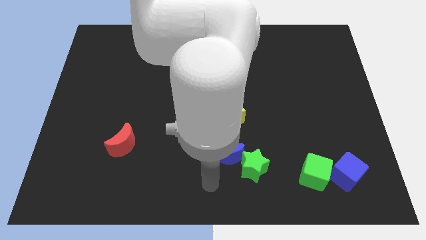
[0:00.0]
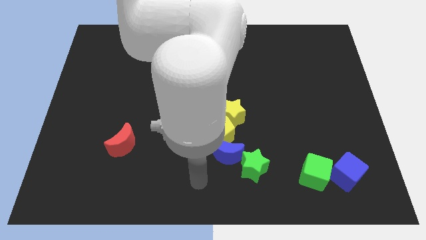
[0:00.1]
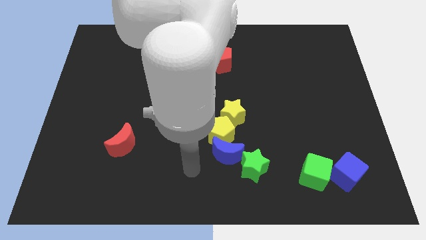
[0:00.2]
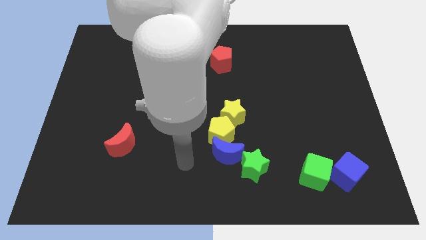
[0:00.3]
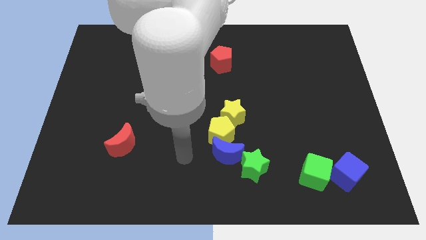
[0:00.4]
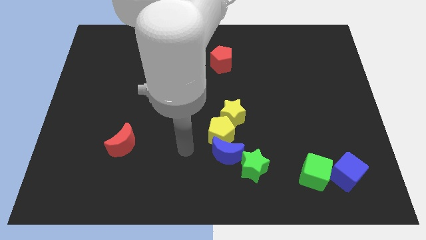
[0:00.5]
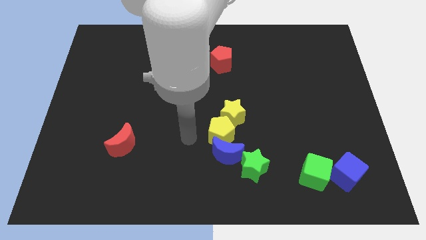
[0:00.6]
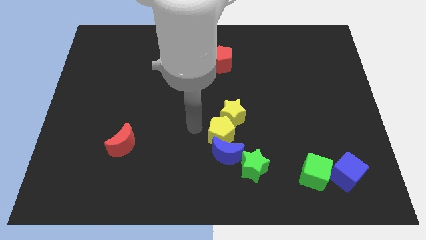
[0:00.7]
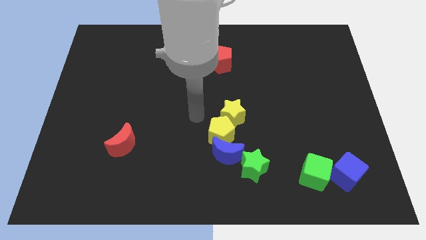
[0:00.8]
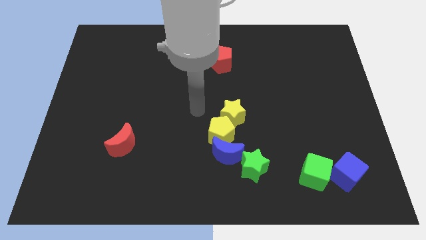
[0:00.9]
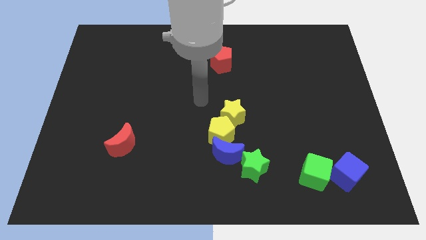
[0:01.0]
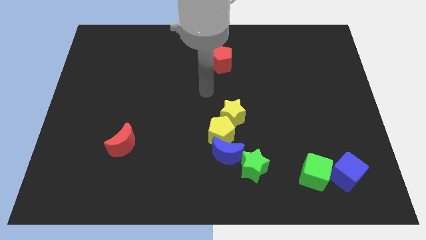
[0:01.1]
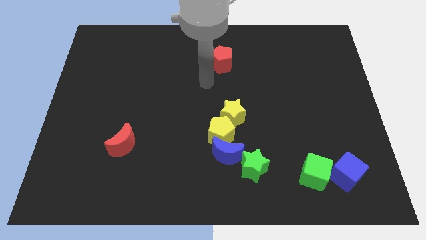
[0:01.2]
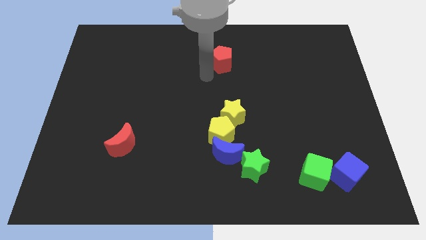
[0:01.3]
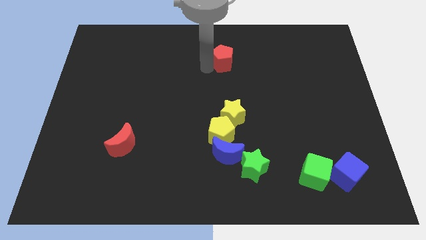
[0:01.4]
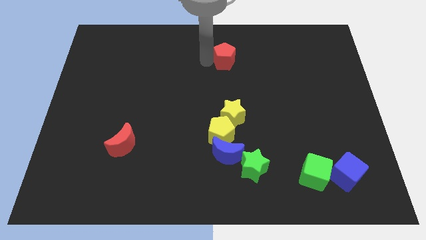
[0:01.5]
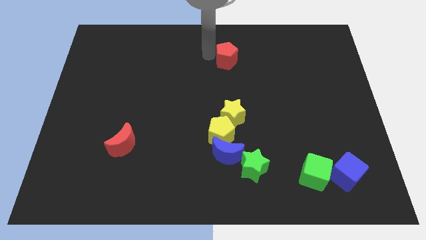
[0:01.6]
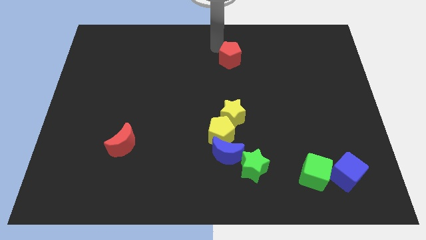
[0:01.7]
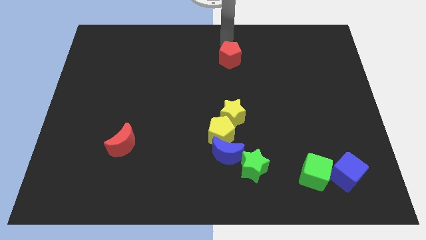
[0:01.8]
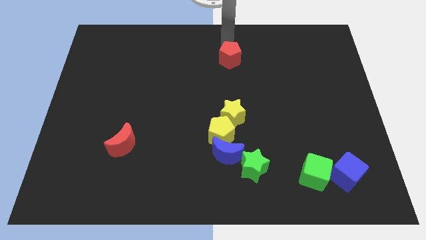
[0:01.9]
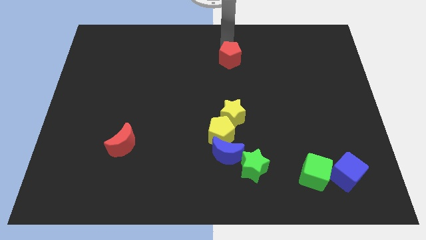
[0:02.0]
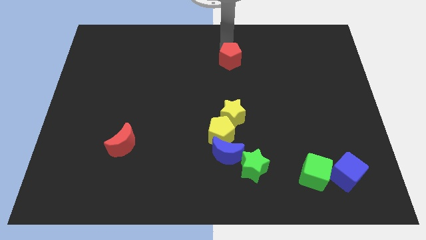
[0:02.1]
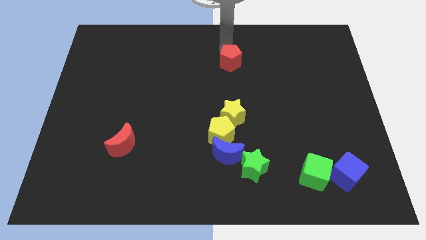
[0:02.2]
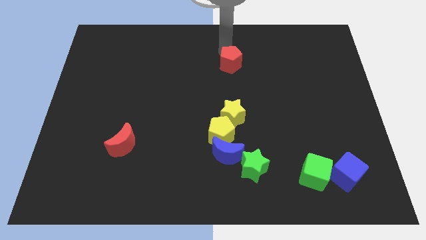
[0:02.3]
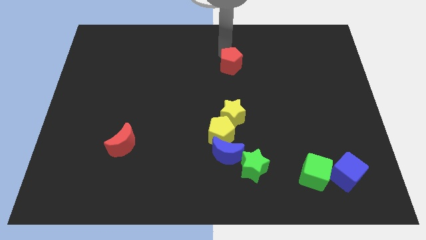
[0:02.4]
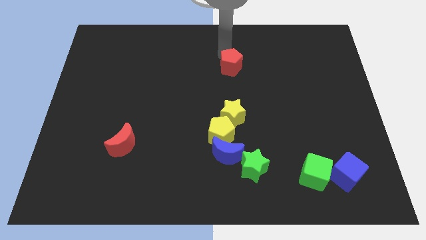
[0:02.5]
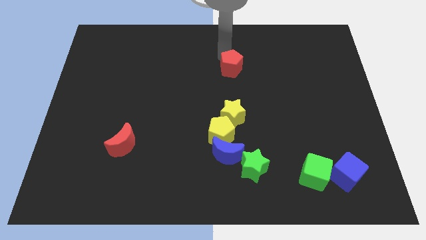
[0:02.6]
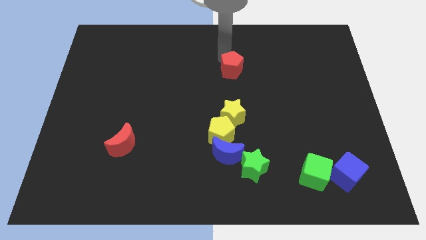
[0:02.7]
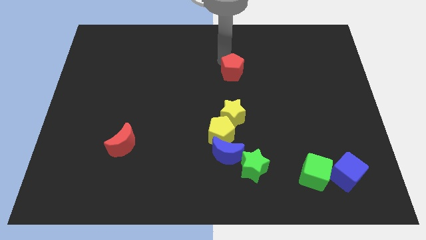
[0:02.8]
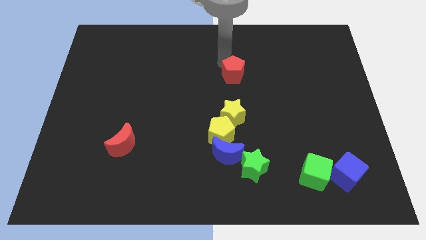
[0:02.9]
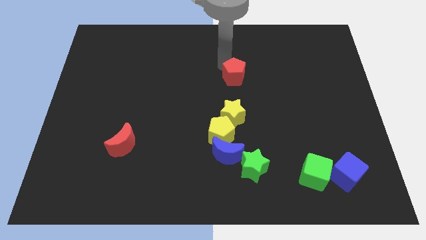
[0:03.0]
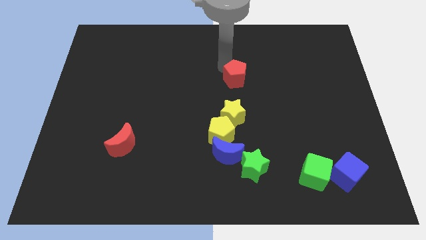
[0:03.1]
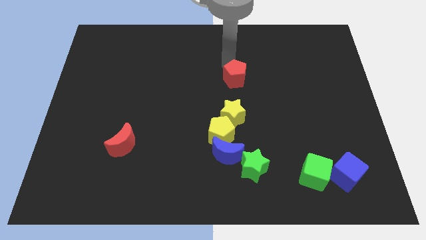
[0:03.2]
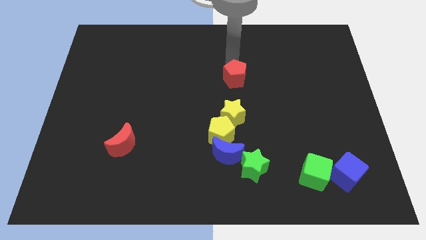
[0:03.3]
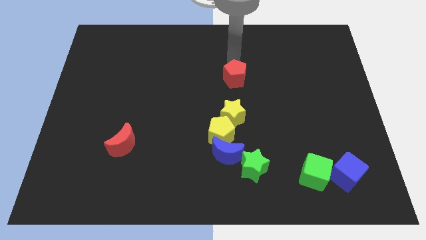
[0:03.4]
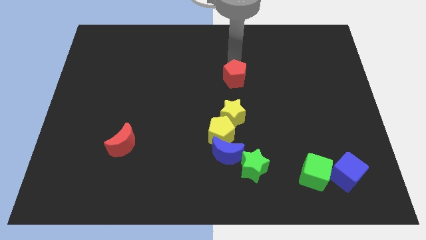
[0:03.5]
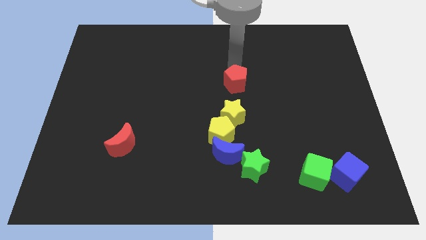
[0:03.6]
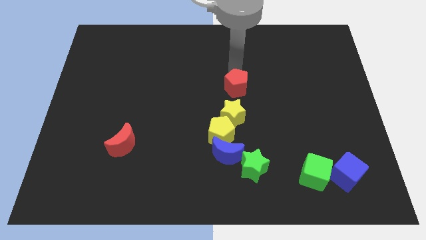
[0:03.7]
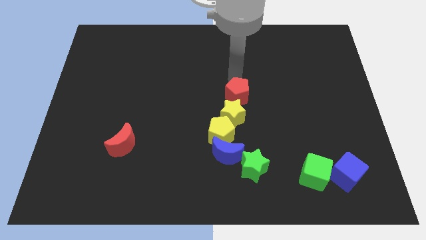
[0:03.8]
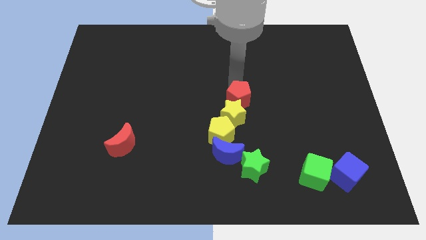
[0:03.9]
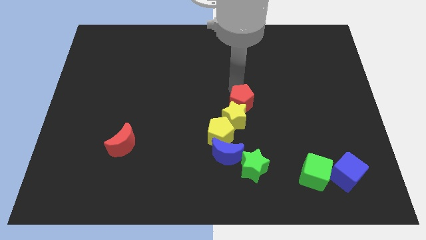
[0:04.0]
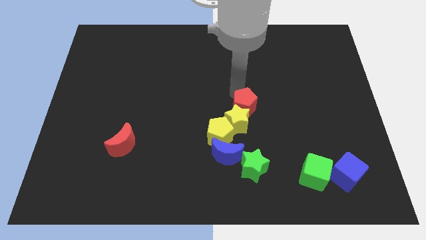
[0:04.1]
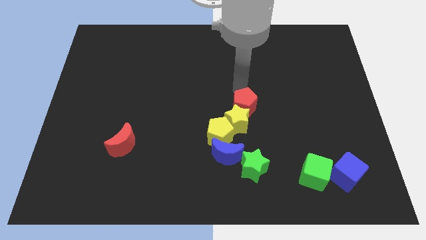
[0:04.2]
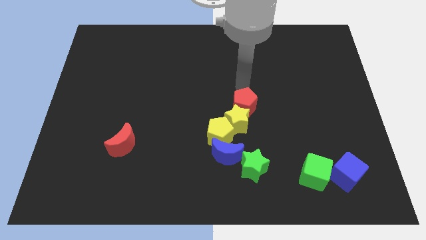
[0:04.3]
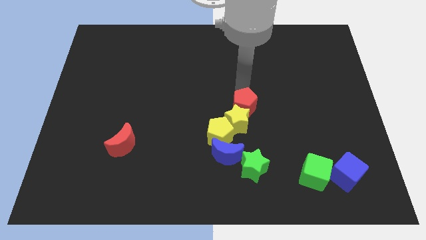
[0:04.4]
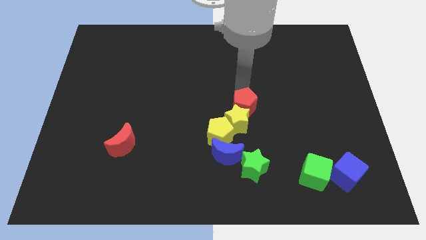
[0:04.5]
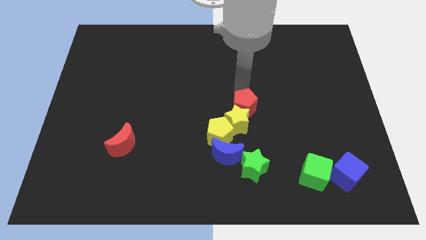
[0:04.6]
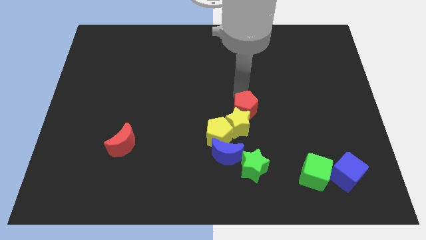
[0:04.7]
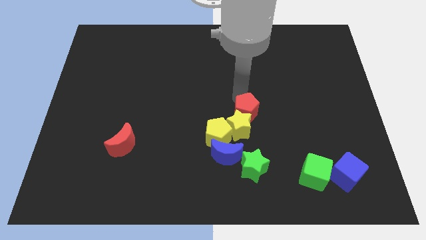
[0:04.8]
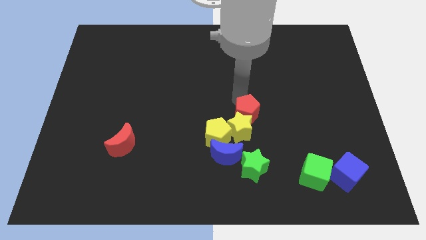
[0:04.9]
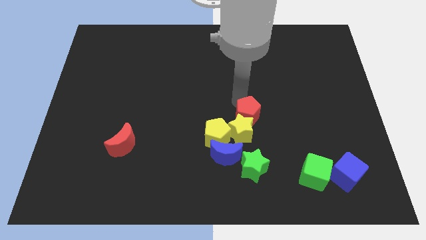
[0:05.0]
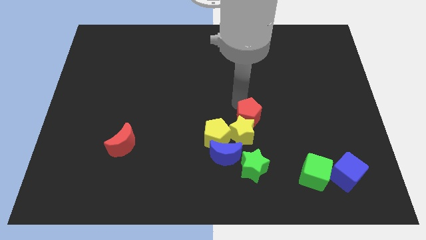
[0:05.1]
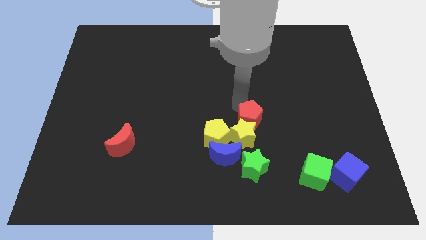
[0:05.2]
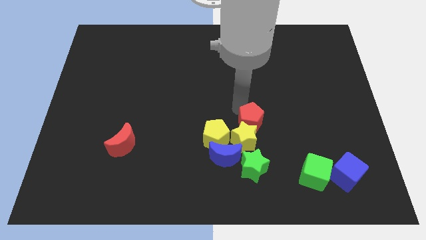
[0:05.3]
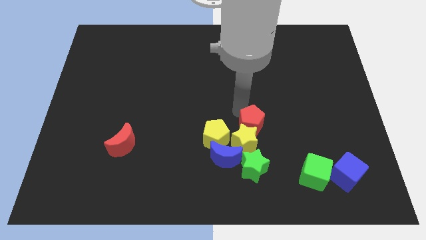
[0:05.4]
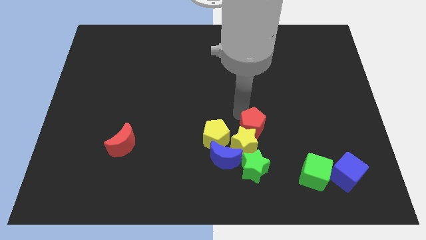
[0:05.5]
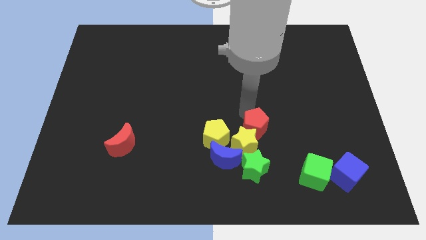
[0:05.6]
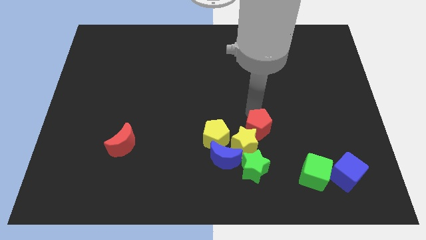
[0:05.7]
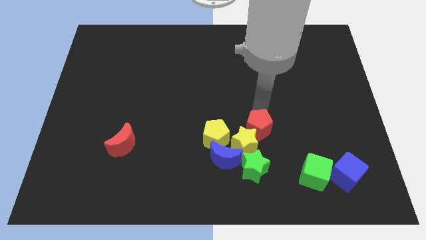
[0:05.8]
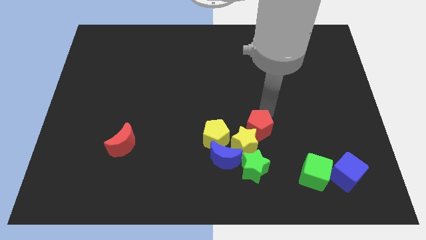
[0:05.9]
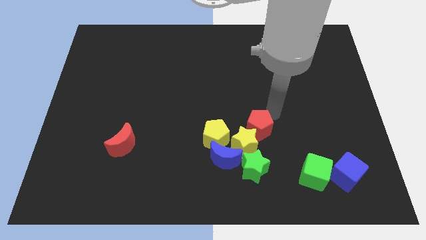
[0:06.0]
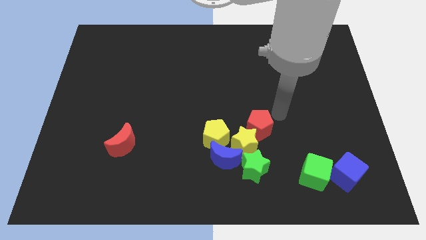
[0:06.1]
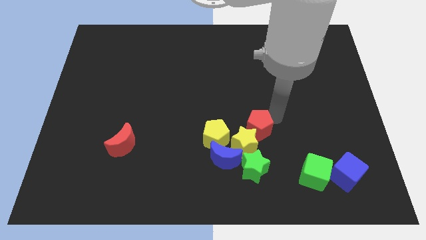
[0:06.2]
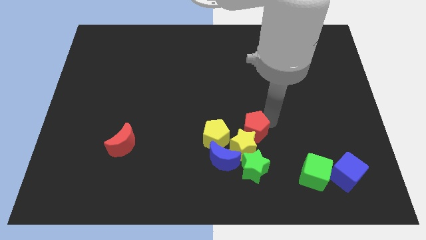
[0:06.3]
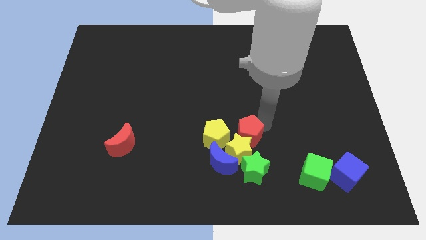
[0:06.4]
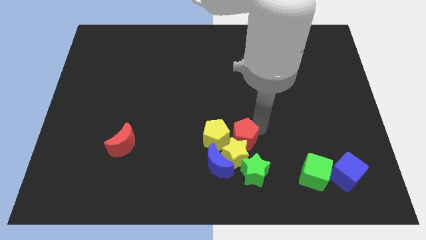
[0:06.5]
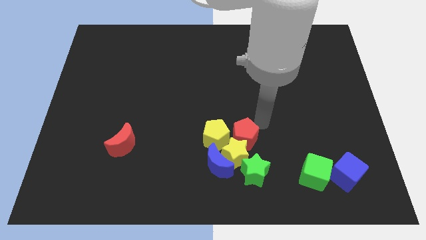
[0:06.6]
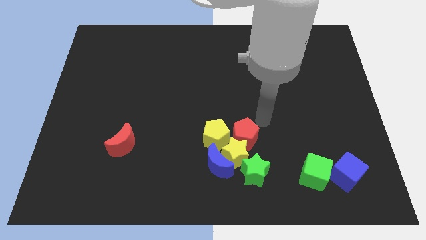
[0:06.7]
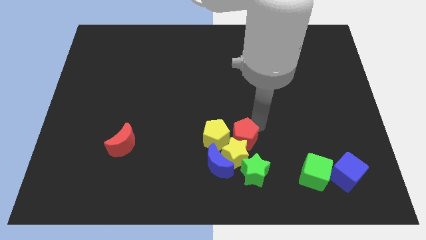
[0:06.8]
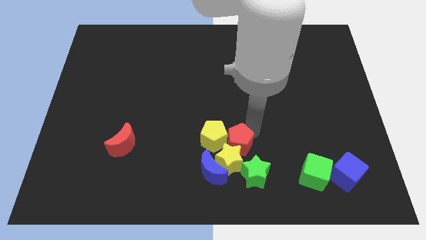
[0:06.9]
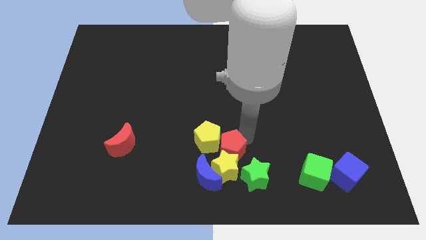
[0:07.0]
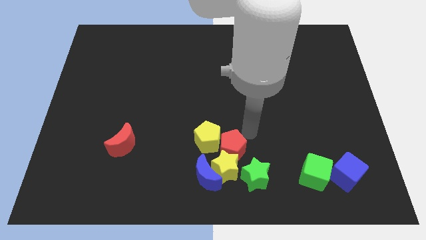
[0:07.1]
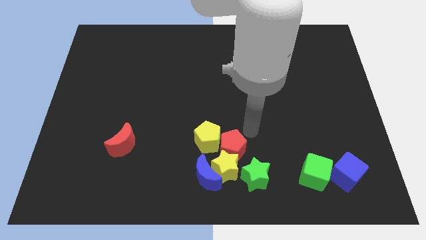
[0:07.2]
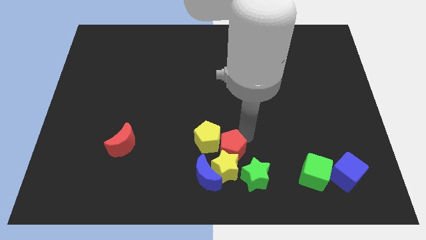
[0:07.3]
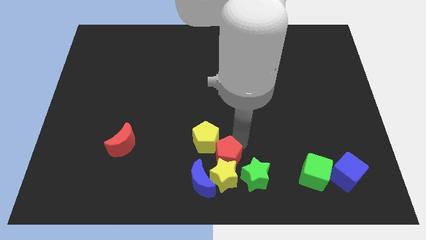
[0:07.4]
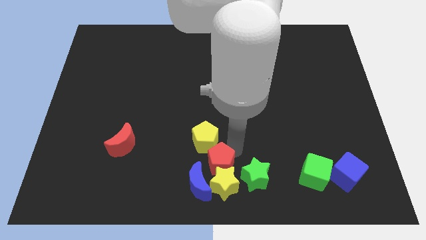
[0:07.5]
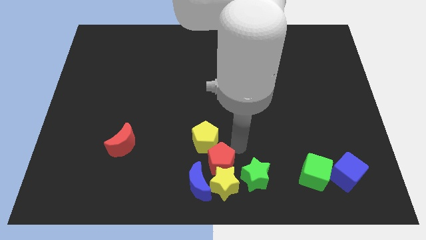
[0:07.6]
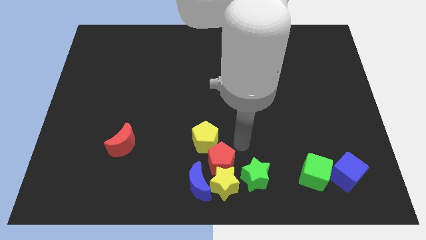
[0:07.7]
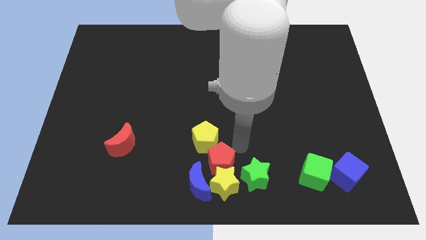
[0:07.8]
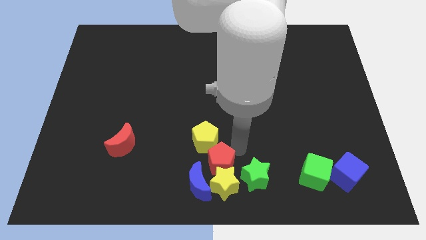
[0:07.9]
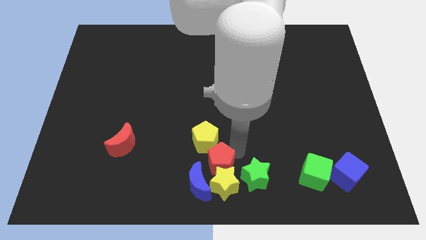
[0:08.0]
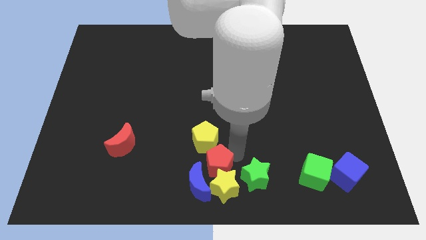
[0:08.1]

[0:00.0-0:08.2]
slide the red pentagon towards the blue moon
